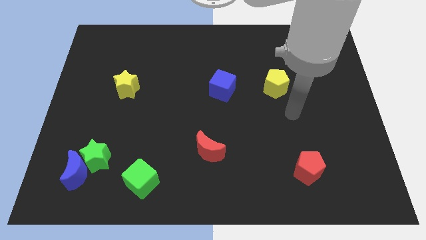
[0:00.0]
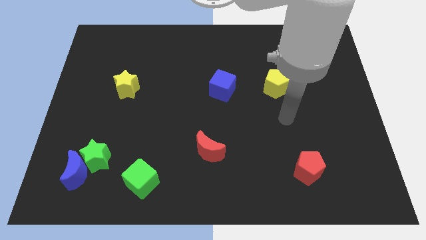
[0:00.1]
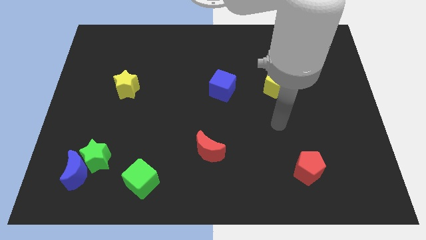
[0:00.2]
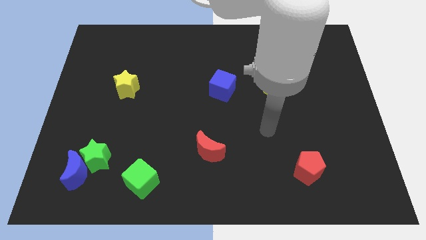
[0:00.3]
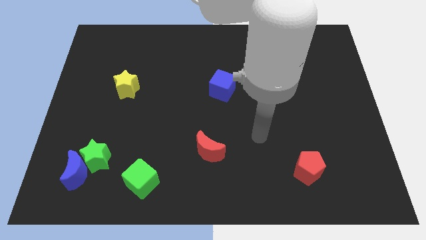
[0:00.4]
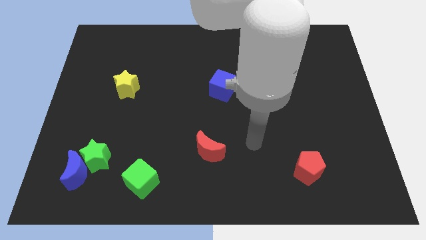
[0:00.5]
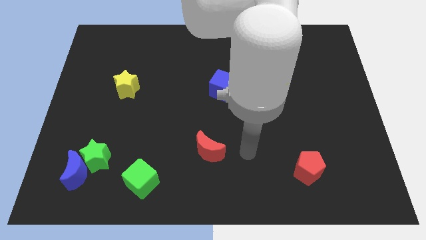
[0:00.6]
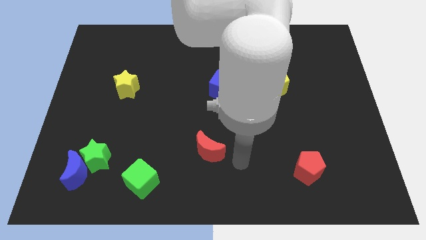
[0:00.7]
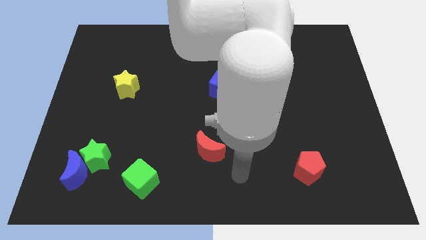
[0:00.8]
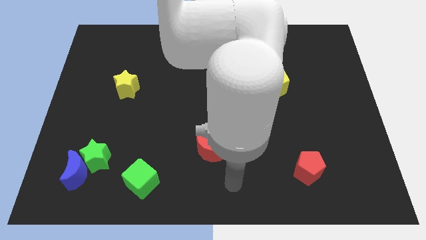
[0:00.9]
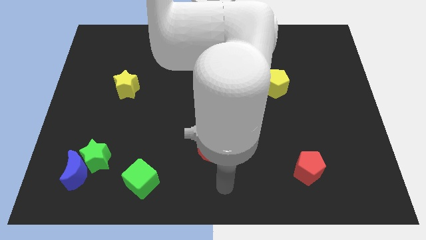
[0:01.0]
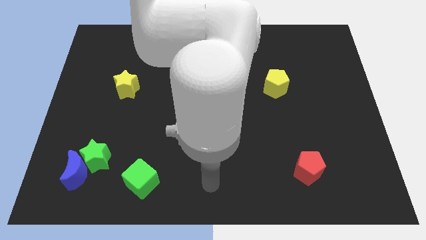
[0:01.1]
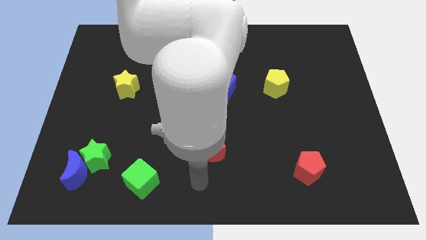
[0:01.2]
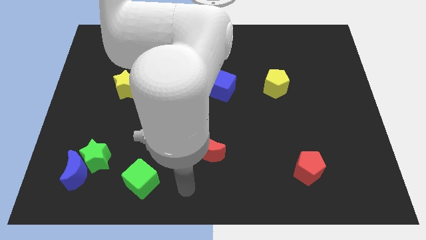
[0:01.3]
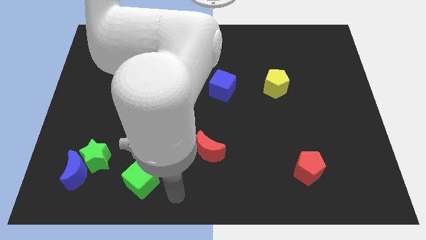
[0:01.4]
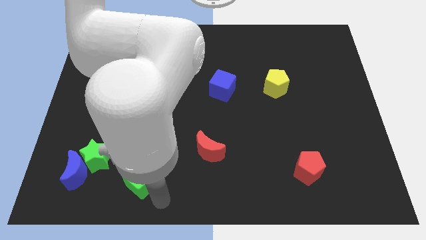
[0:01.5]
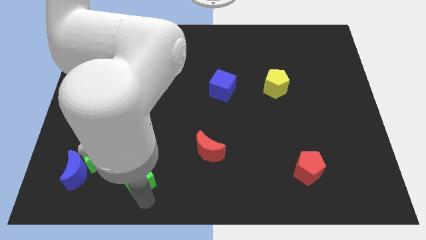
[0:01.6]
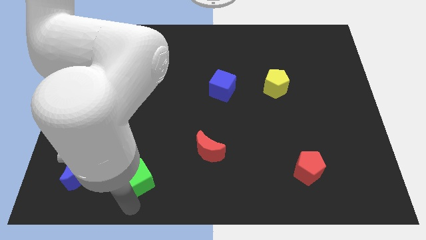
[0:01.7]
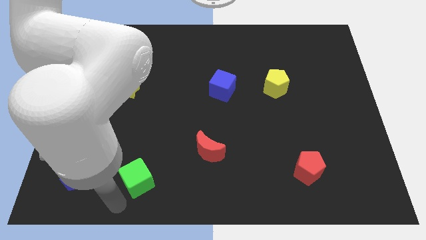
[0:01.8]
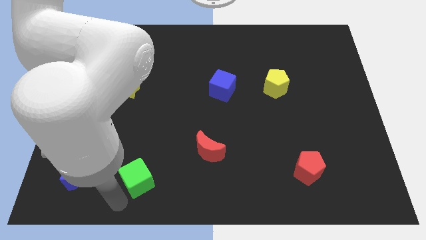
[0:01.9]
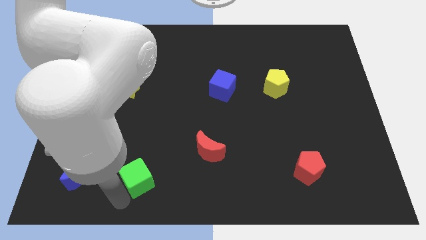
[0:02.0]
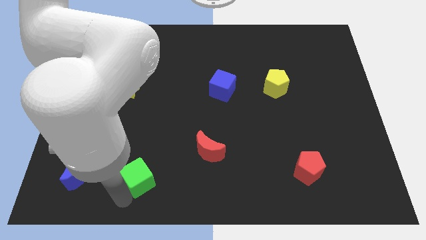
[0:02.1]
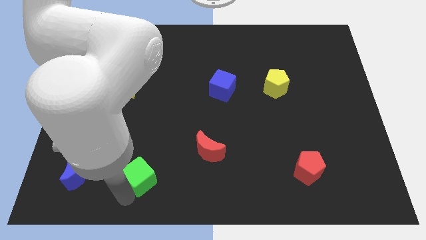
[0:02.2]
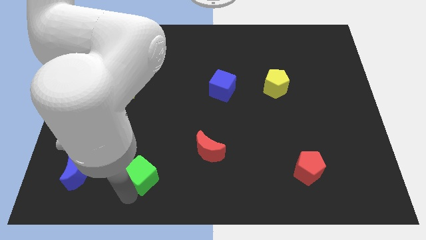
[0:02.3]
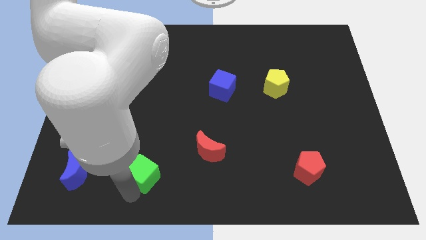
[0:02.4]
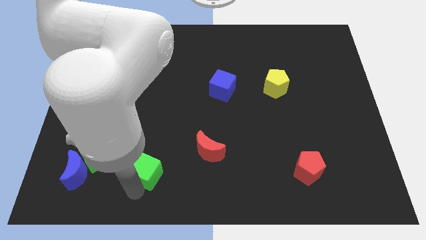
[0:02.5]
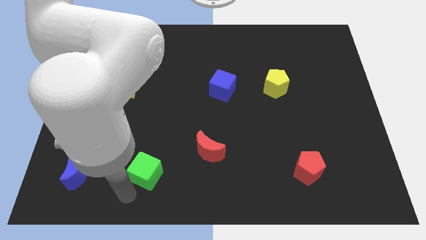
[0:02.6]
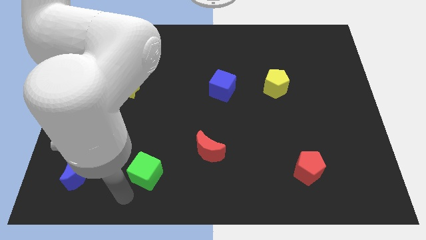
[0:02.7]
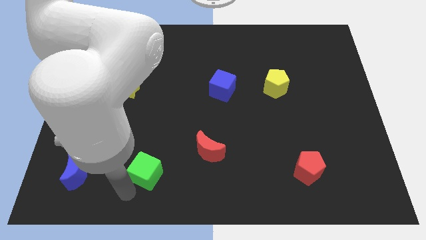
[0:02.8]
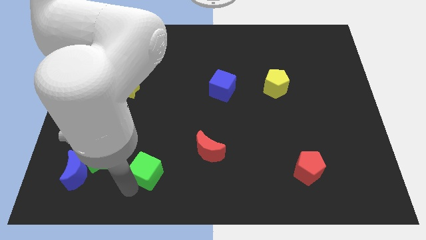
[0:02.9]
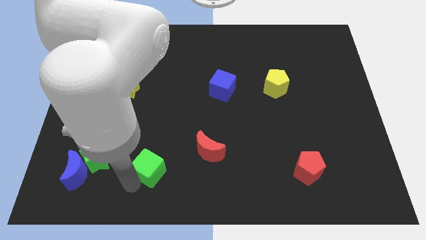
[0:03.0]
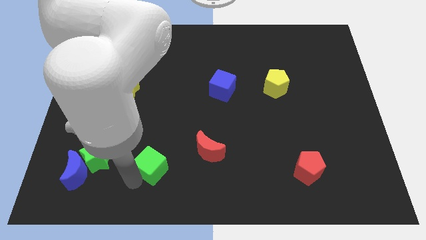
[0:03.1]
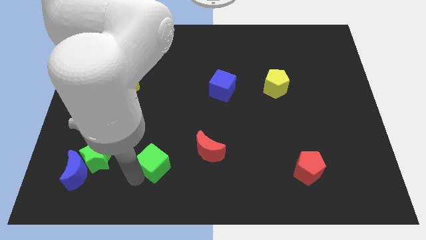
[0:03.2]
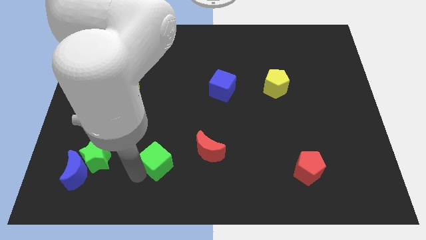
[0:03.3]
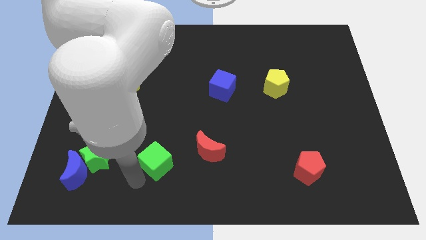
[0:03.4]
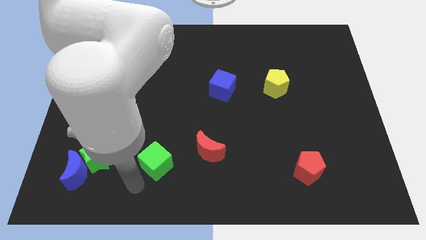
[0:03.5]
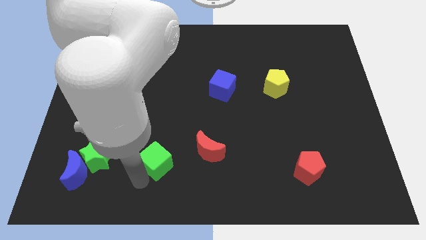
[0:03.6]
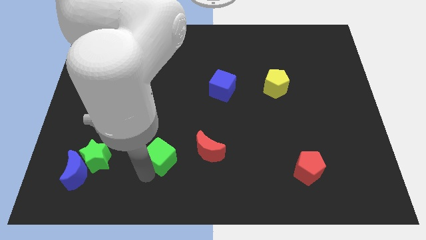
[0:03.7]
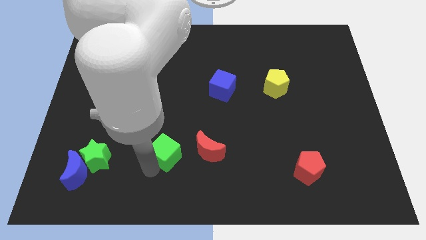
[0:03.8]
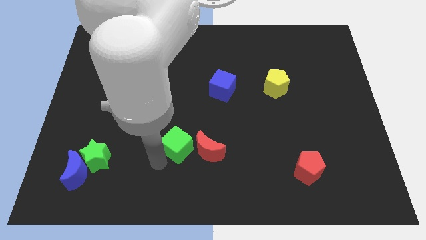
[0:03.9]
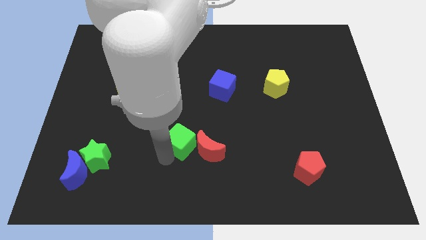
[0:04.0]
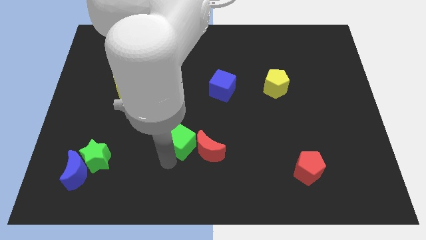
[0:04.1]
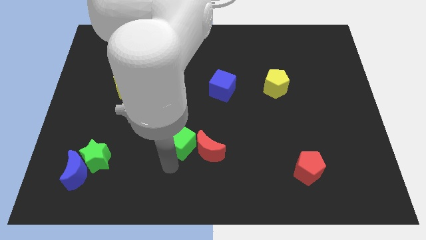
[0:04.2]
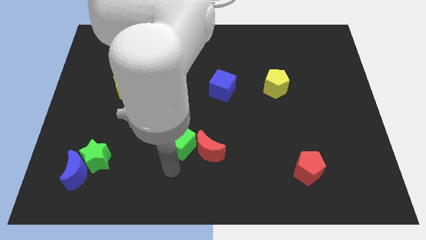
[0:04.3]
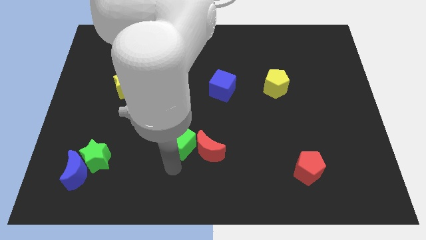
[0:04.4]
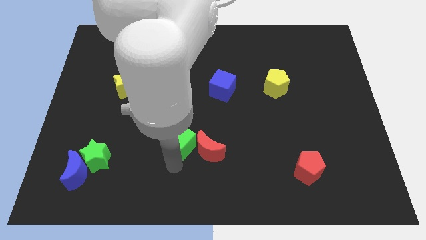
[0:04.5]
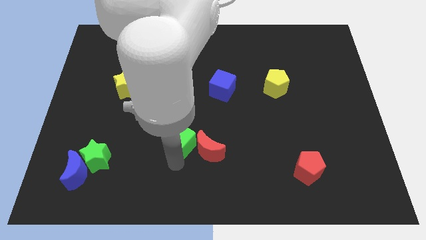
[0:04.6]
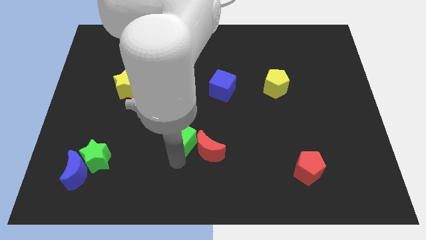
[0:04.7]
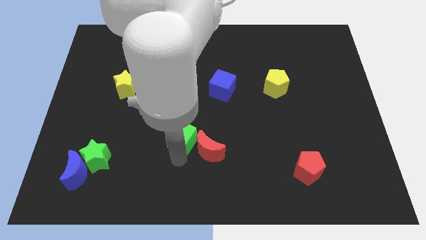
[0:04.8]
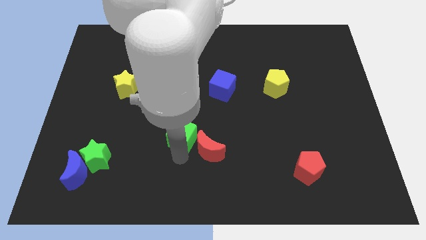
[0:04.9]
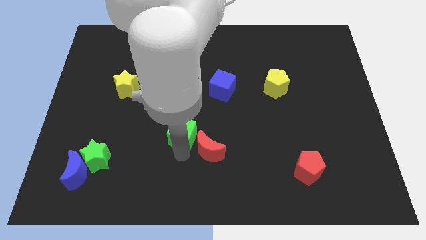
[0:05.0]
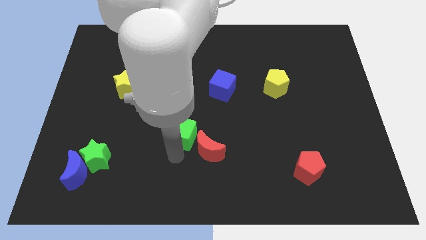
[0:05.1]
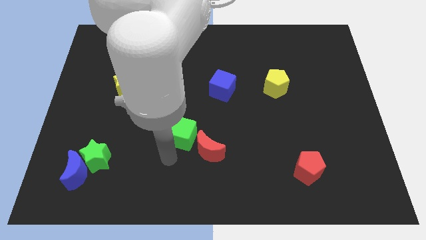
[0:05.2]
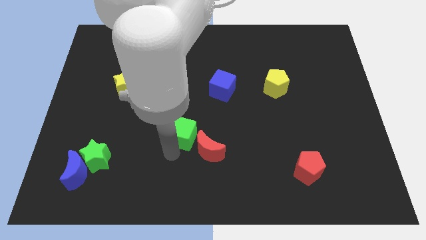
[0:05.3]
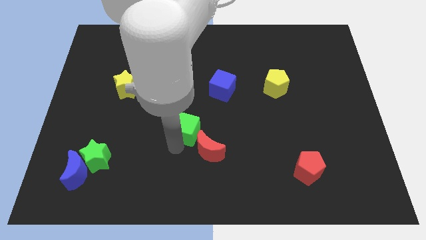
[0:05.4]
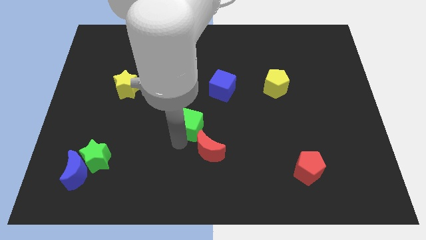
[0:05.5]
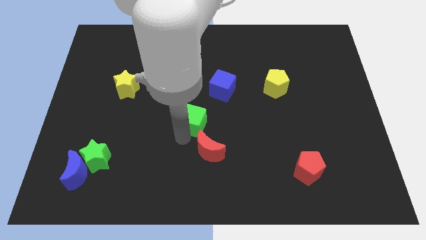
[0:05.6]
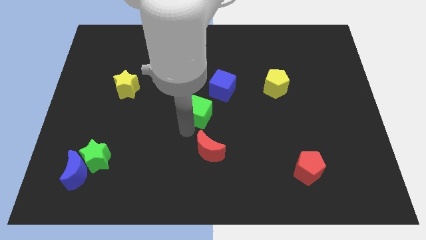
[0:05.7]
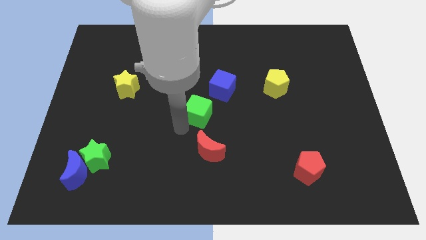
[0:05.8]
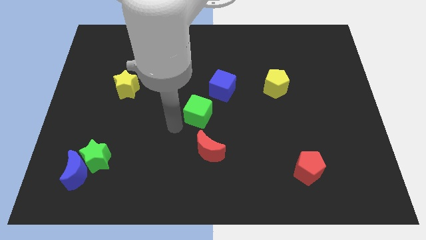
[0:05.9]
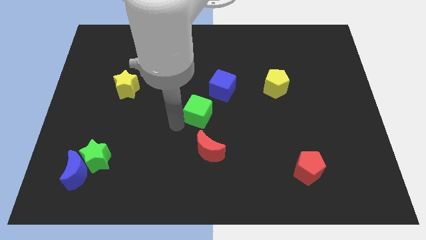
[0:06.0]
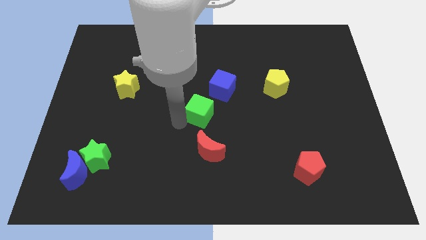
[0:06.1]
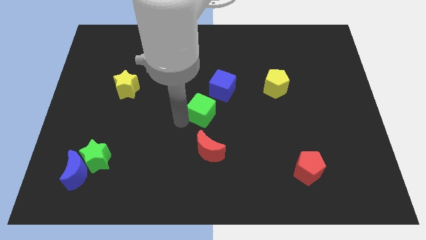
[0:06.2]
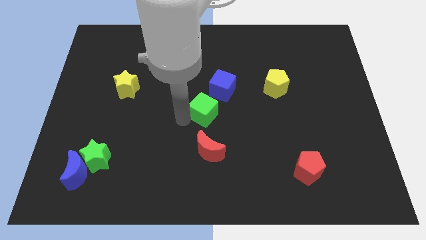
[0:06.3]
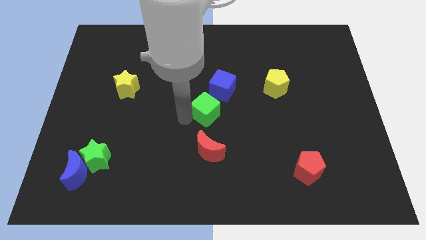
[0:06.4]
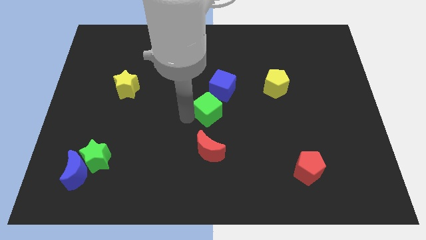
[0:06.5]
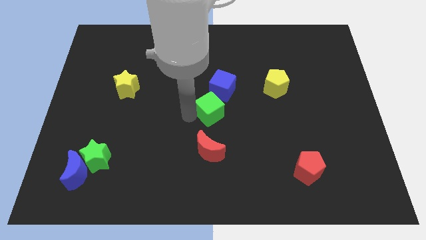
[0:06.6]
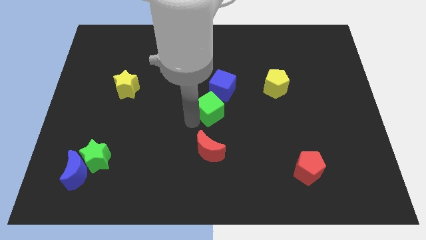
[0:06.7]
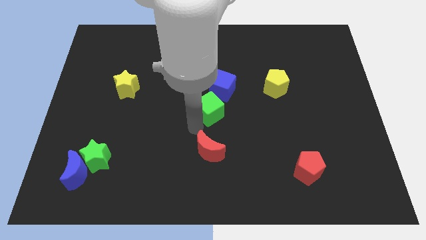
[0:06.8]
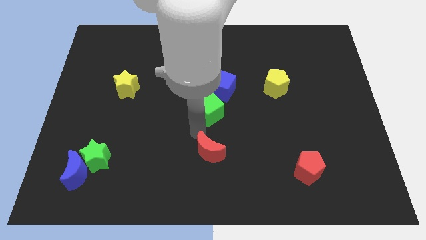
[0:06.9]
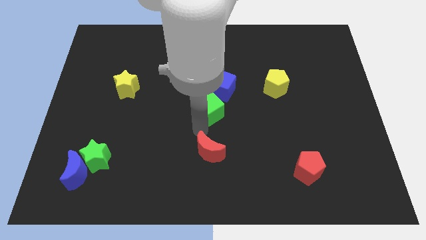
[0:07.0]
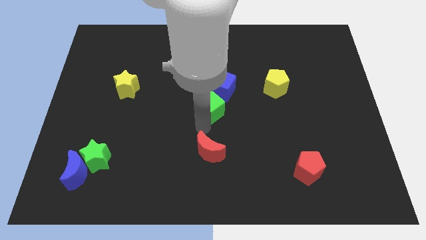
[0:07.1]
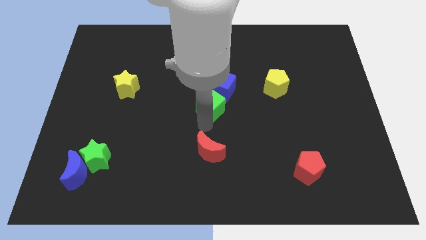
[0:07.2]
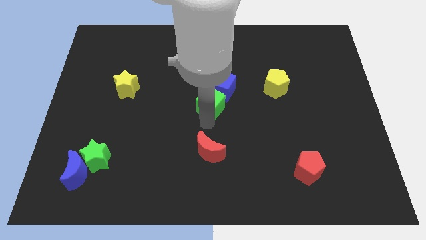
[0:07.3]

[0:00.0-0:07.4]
push the green cube to the blue cube
